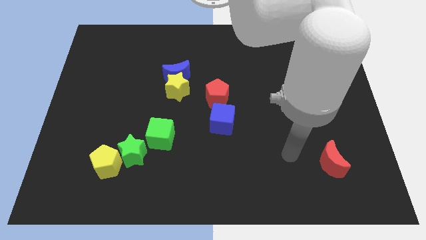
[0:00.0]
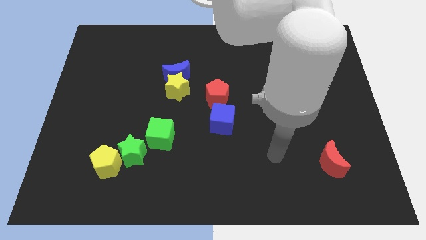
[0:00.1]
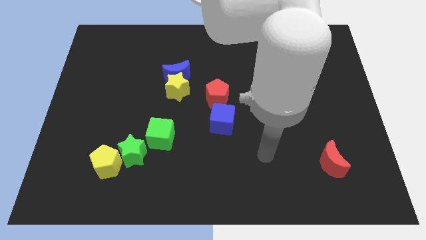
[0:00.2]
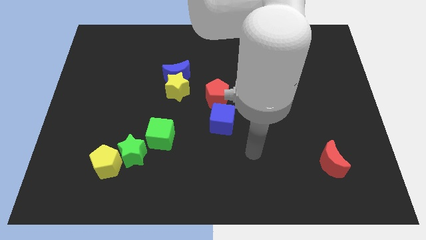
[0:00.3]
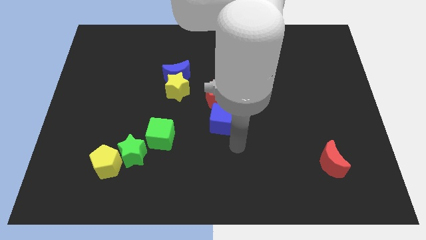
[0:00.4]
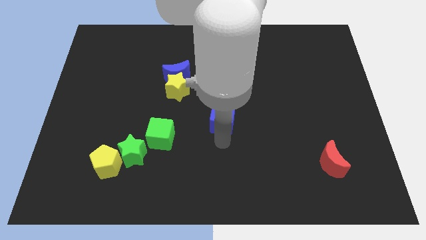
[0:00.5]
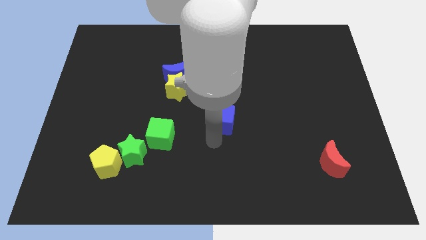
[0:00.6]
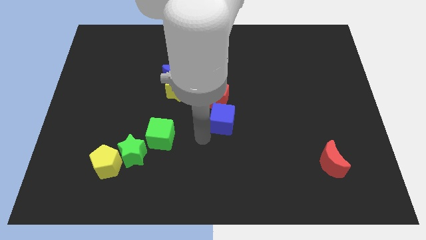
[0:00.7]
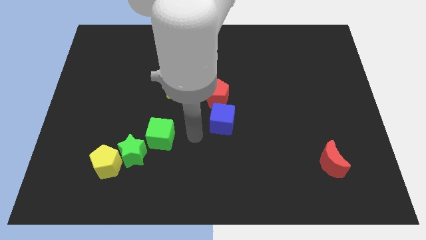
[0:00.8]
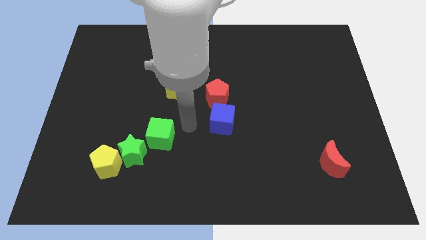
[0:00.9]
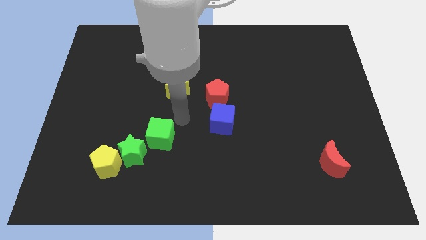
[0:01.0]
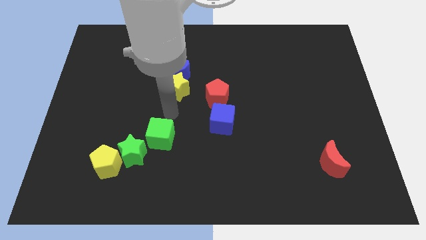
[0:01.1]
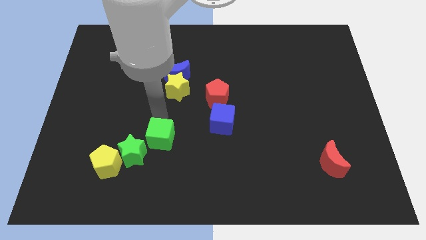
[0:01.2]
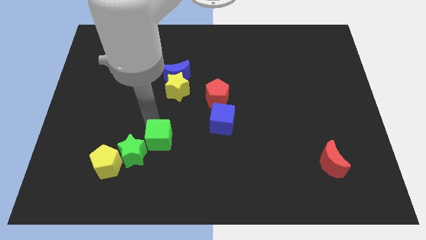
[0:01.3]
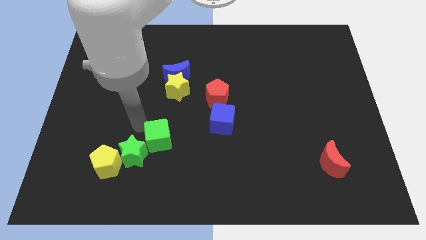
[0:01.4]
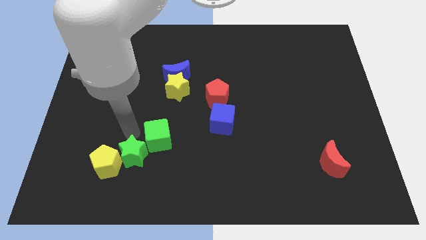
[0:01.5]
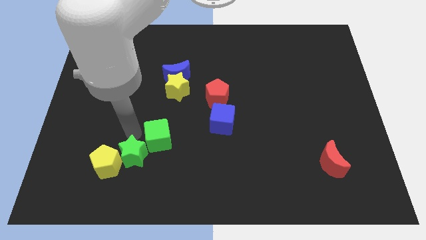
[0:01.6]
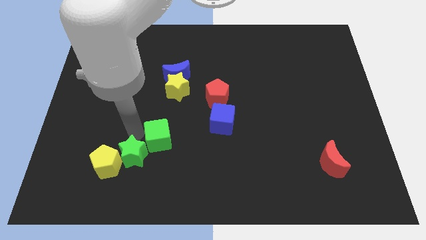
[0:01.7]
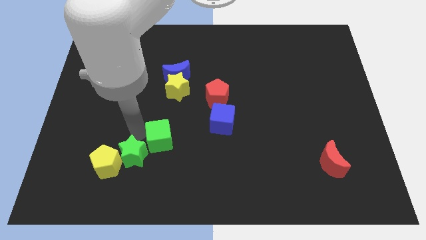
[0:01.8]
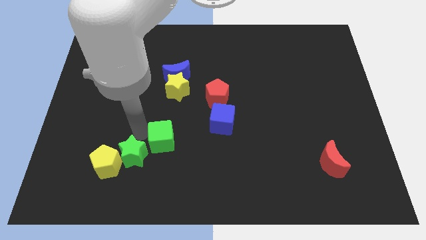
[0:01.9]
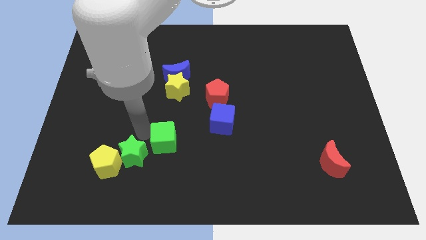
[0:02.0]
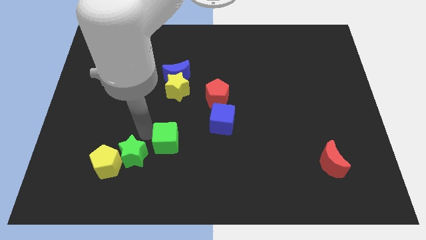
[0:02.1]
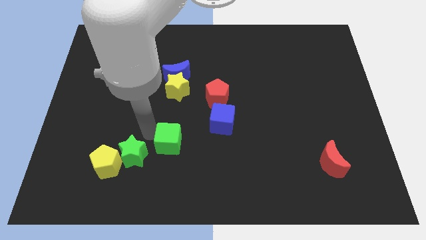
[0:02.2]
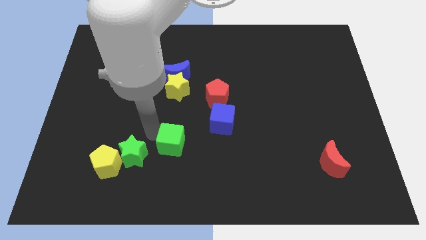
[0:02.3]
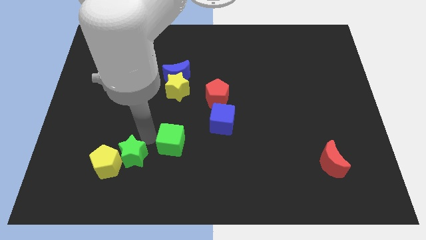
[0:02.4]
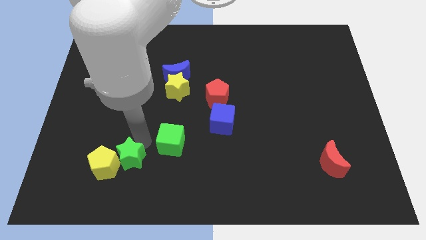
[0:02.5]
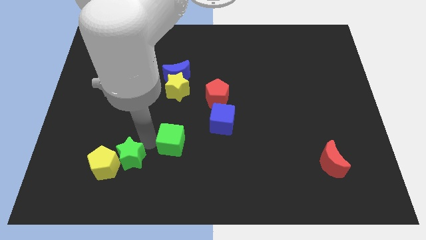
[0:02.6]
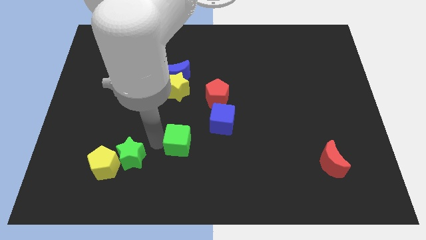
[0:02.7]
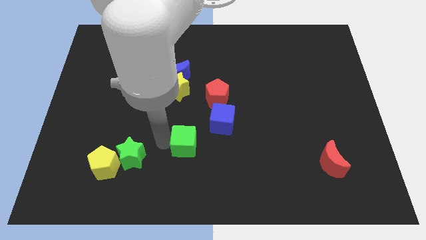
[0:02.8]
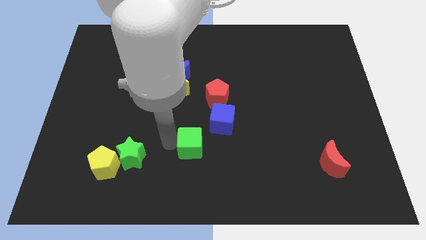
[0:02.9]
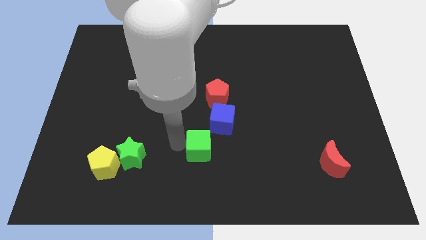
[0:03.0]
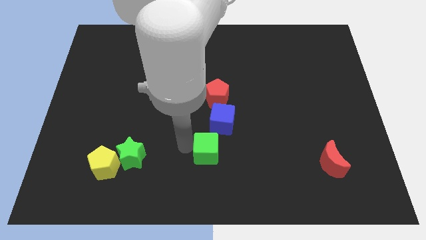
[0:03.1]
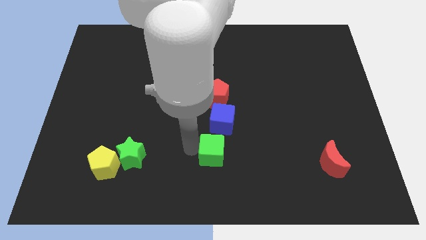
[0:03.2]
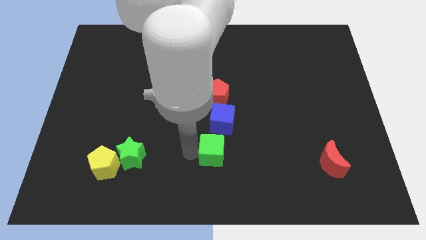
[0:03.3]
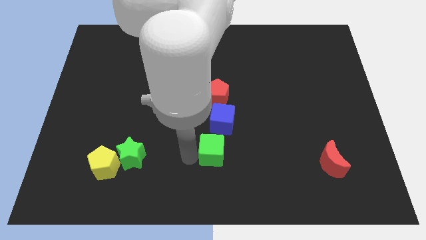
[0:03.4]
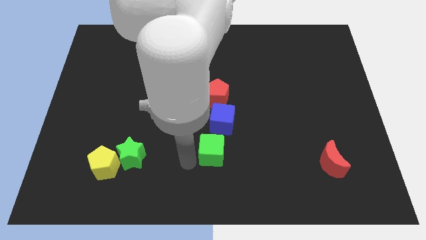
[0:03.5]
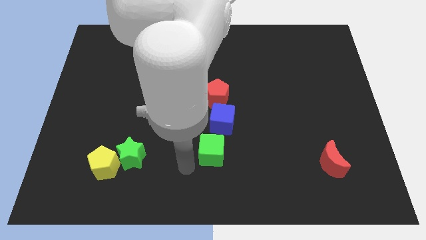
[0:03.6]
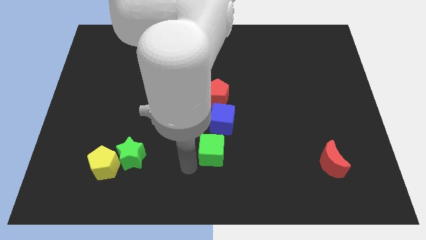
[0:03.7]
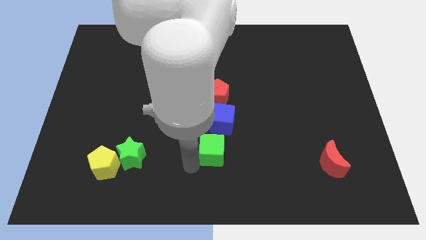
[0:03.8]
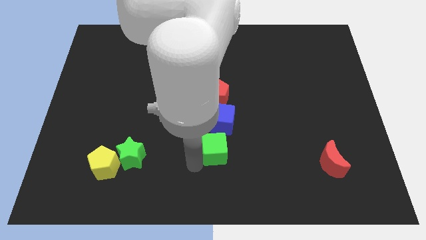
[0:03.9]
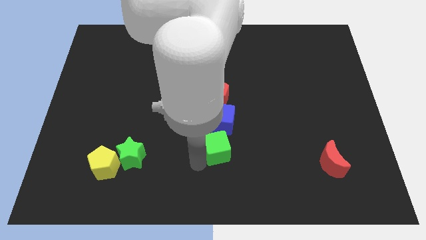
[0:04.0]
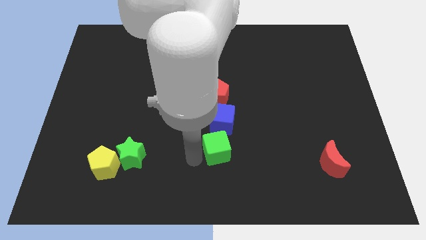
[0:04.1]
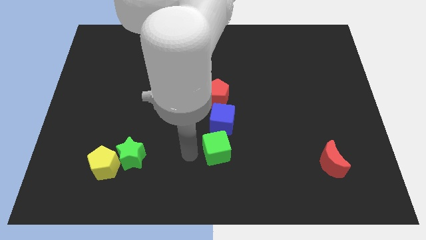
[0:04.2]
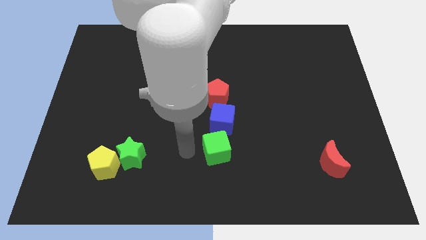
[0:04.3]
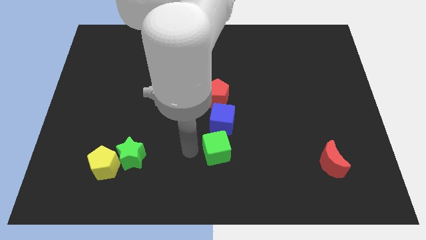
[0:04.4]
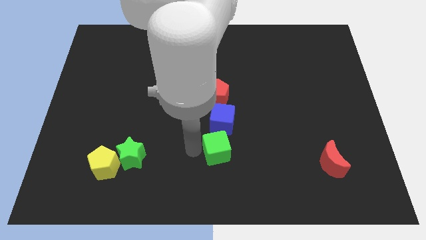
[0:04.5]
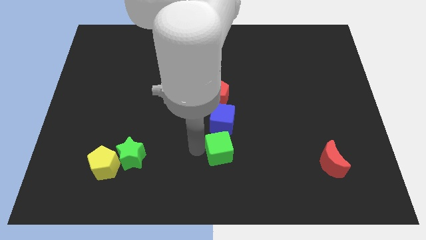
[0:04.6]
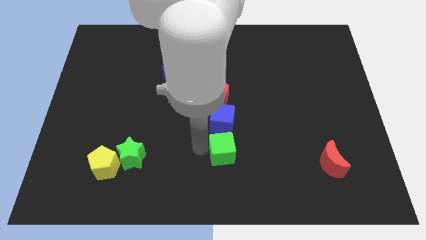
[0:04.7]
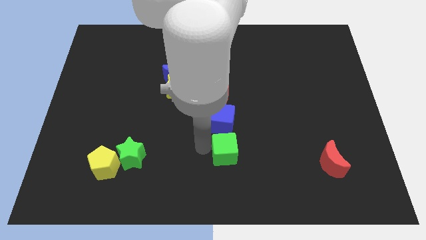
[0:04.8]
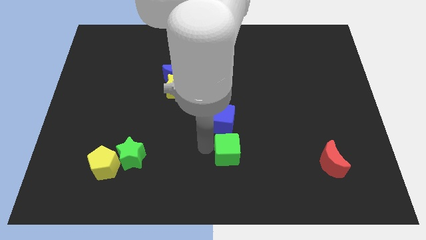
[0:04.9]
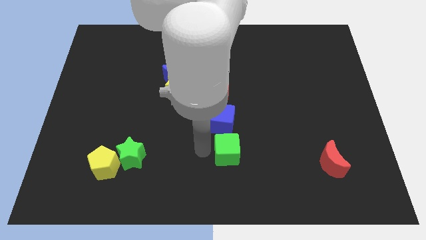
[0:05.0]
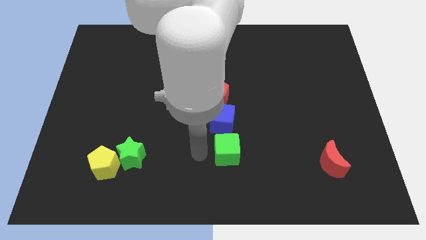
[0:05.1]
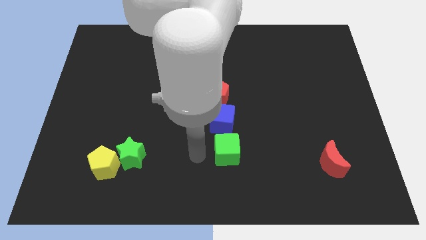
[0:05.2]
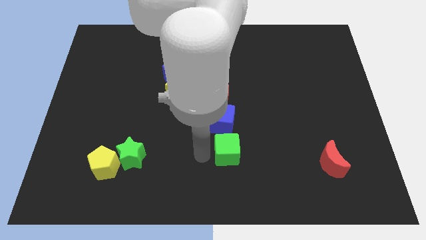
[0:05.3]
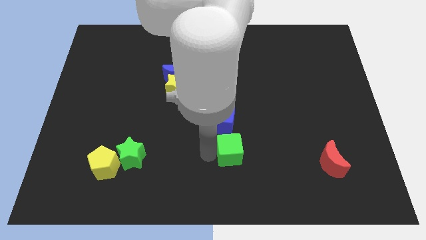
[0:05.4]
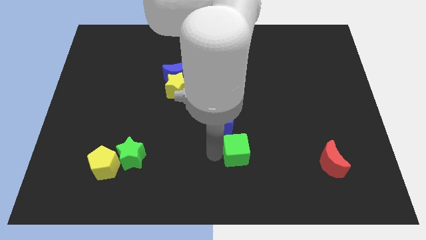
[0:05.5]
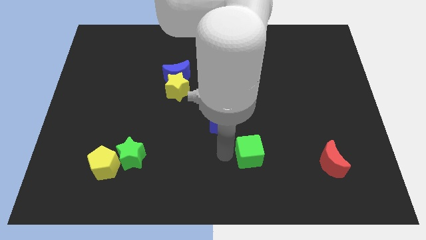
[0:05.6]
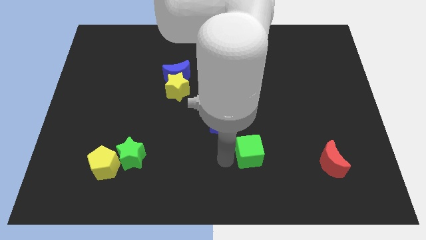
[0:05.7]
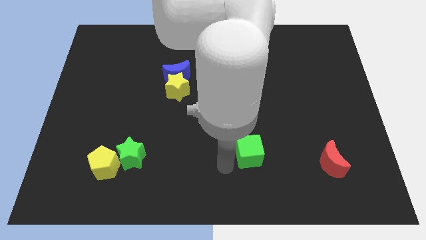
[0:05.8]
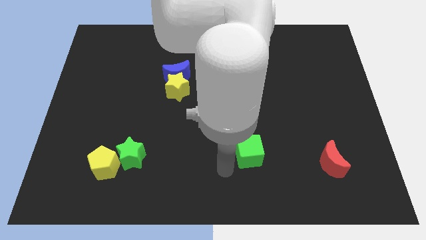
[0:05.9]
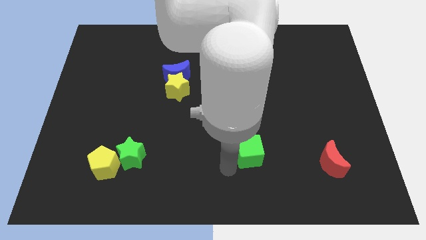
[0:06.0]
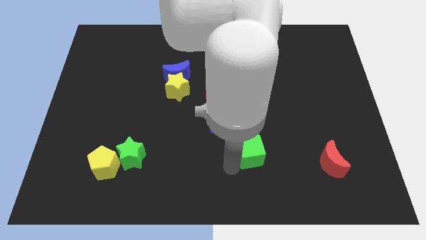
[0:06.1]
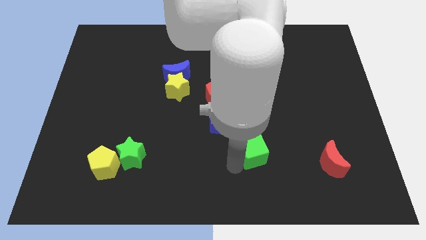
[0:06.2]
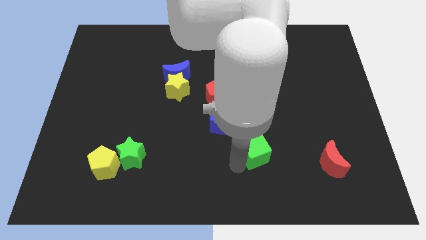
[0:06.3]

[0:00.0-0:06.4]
push the green cube right

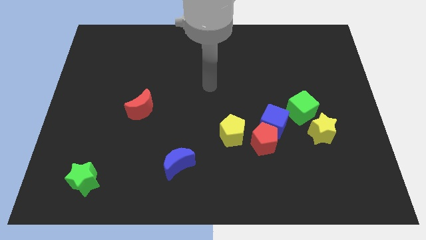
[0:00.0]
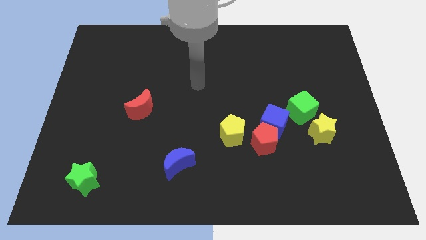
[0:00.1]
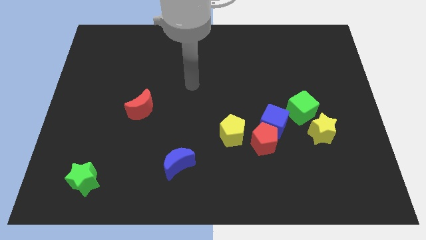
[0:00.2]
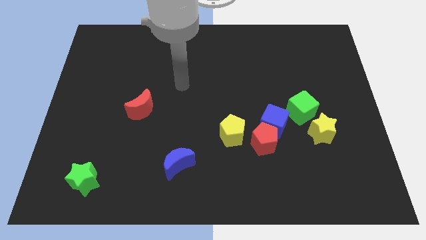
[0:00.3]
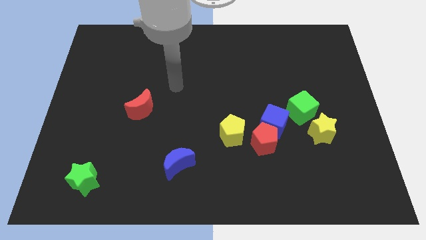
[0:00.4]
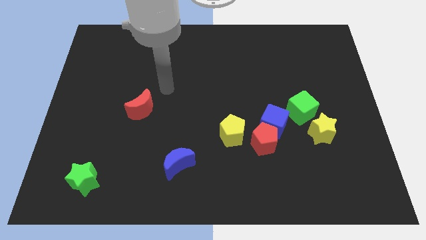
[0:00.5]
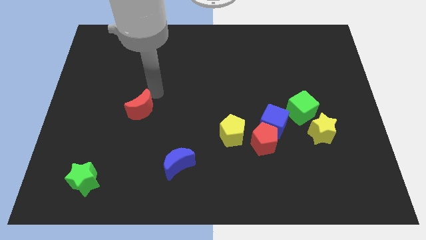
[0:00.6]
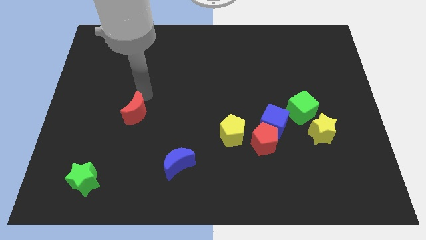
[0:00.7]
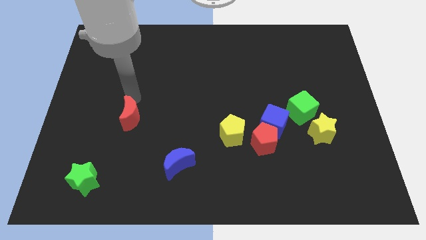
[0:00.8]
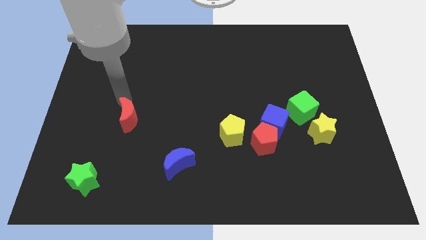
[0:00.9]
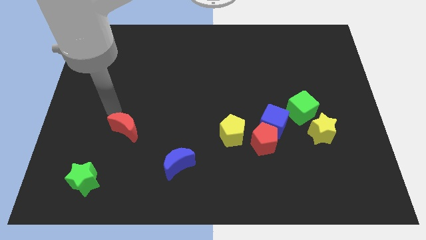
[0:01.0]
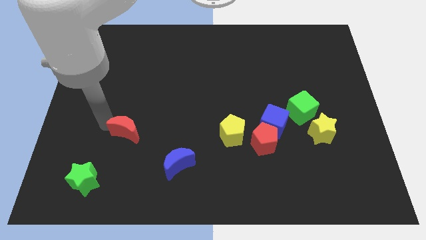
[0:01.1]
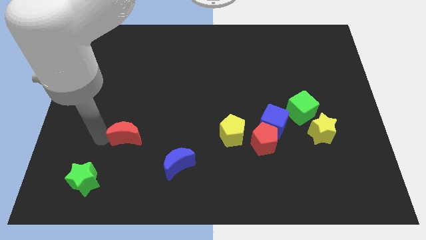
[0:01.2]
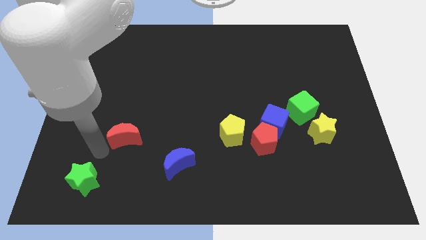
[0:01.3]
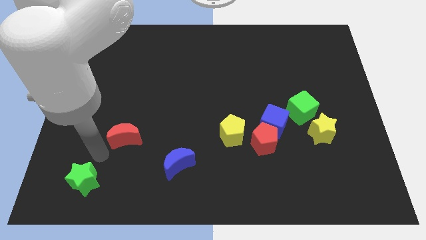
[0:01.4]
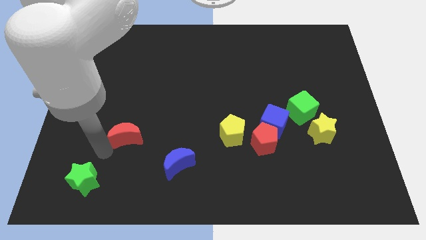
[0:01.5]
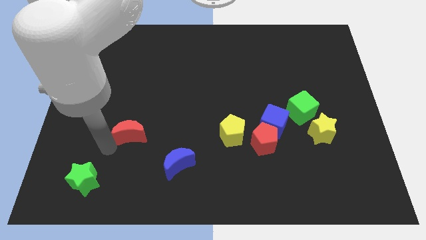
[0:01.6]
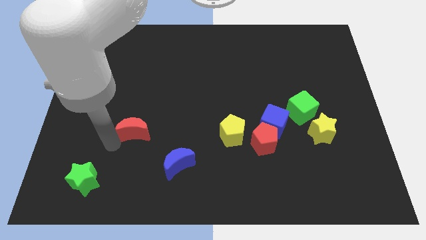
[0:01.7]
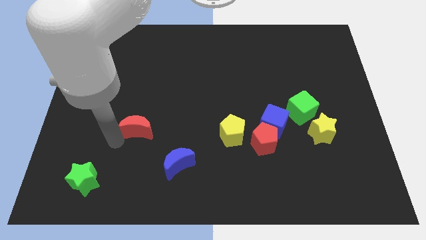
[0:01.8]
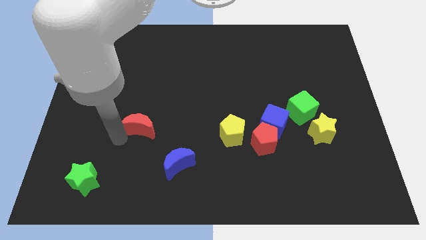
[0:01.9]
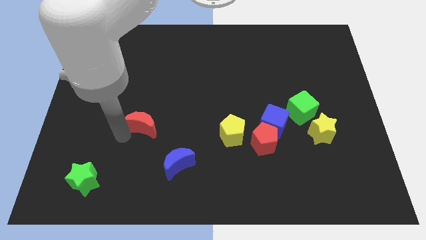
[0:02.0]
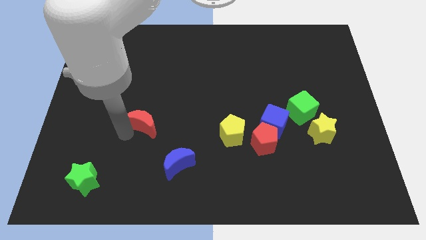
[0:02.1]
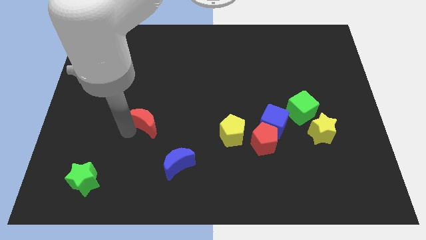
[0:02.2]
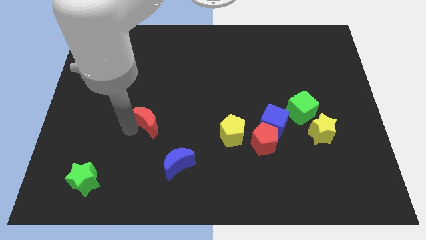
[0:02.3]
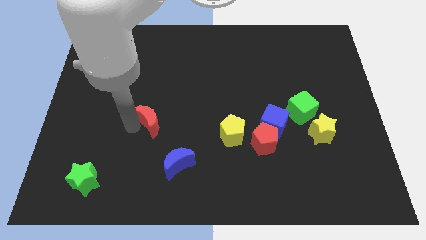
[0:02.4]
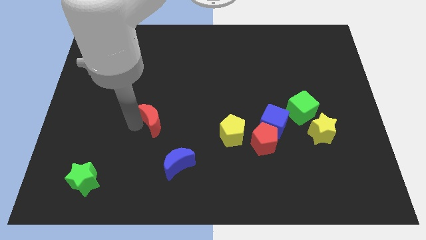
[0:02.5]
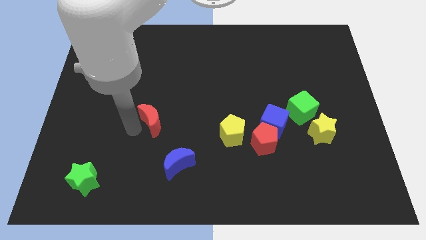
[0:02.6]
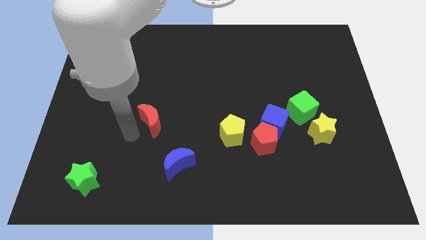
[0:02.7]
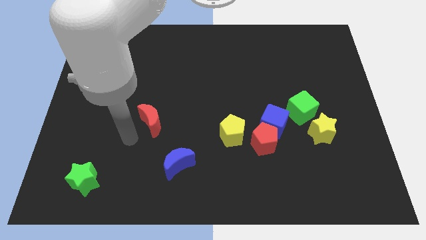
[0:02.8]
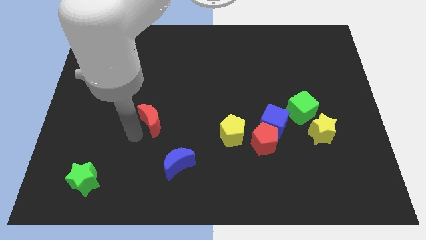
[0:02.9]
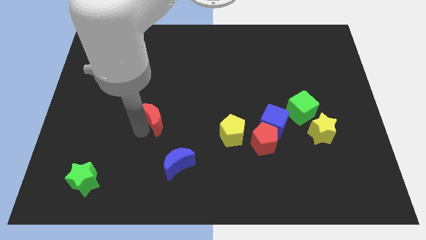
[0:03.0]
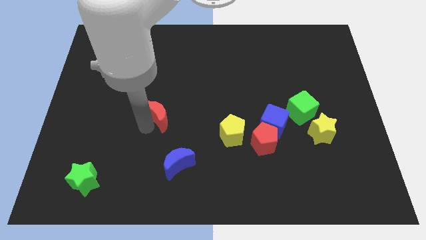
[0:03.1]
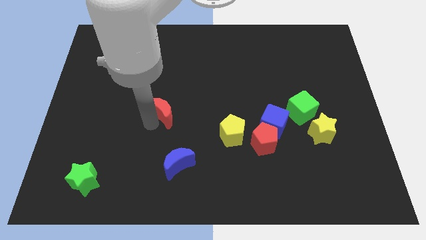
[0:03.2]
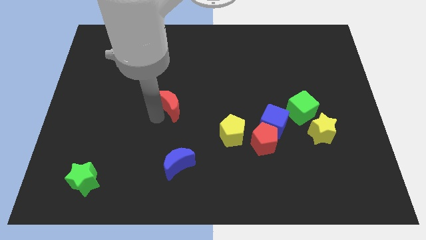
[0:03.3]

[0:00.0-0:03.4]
push the red moon to the right a little bit
